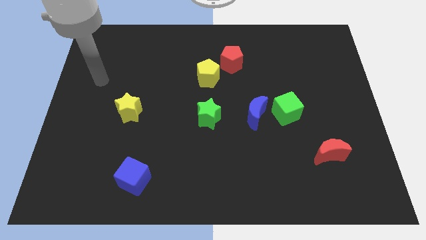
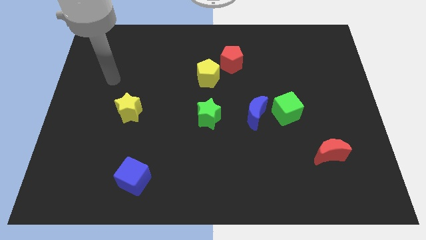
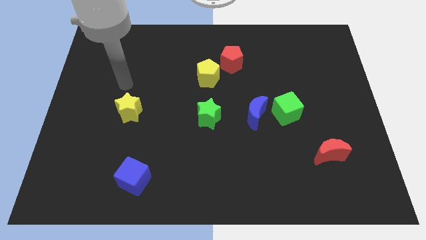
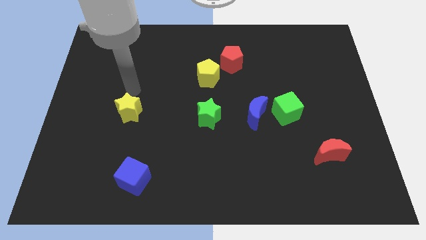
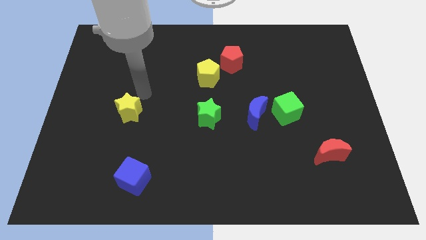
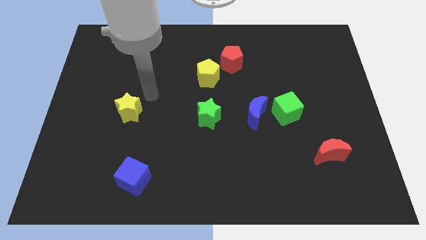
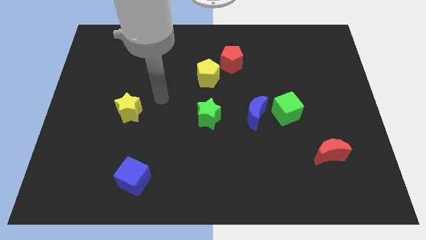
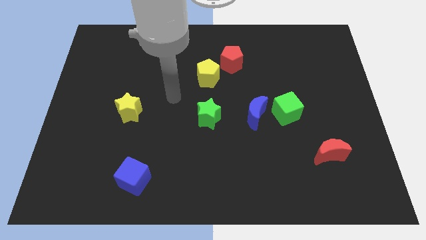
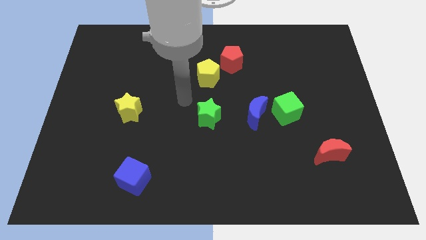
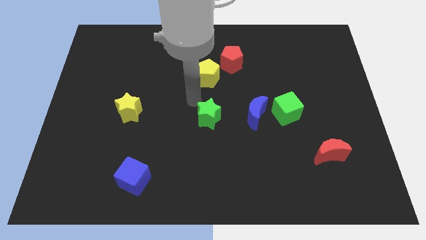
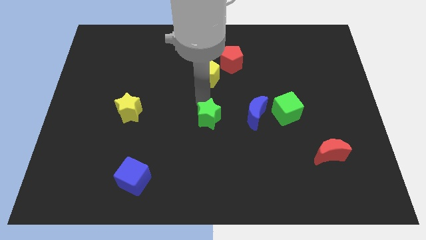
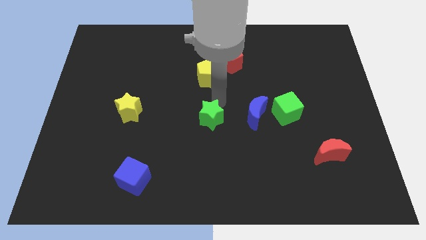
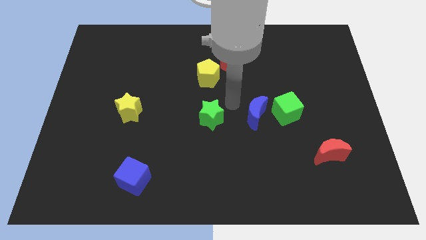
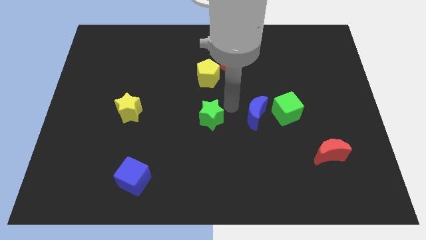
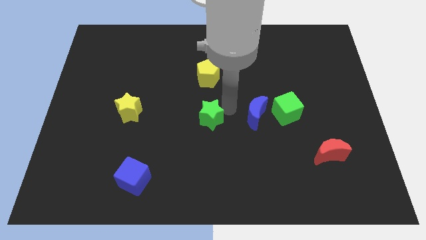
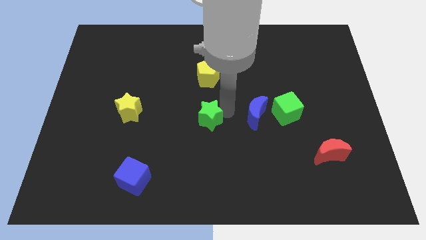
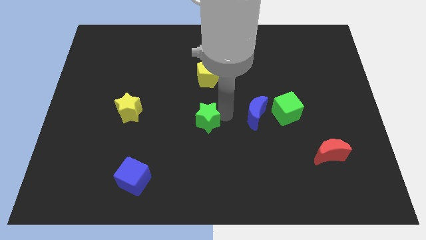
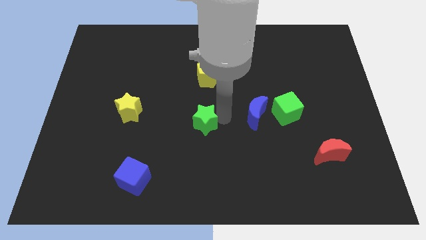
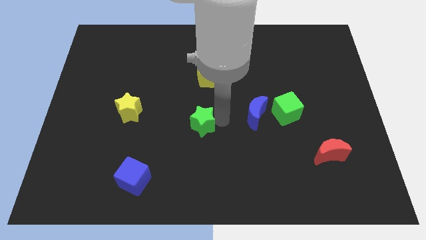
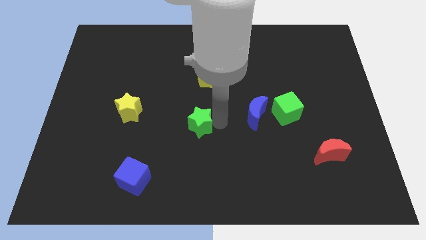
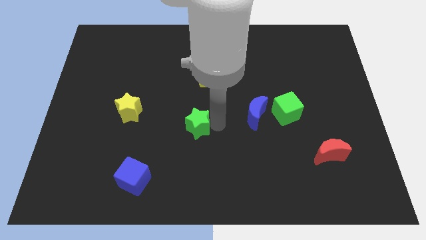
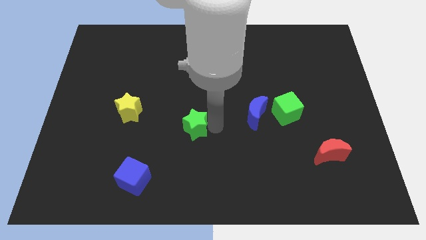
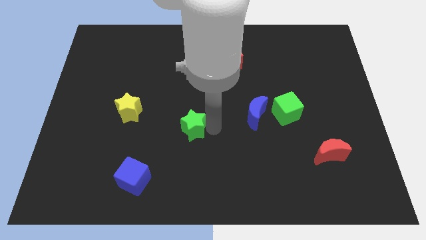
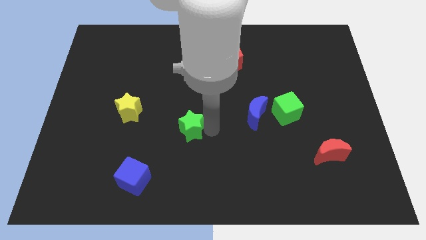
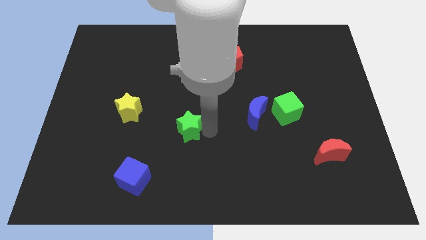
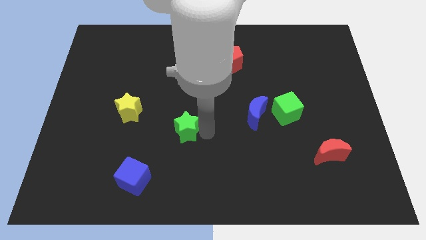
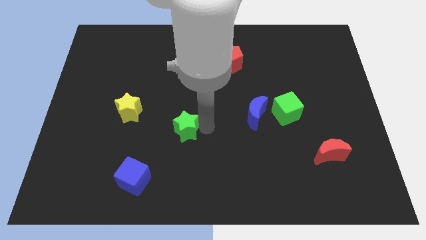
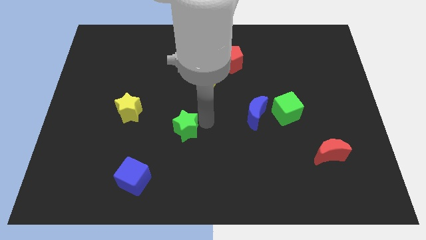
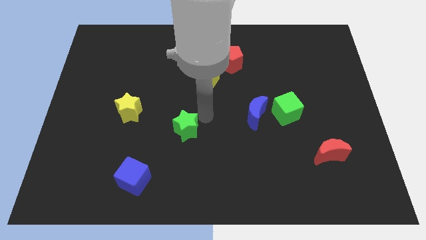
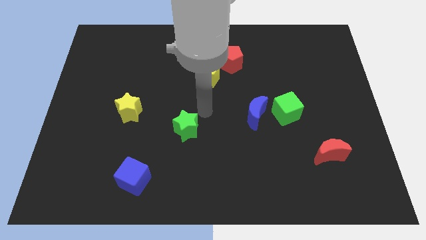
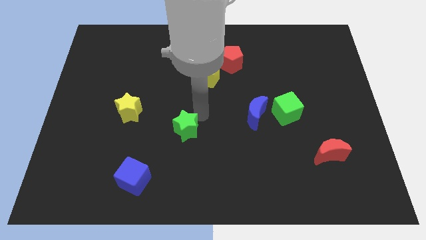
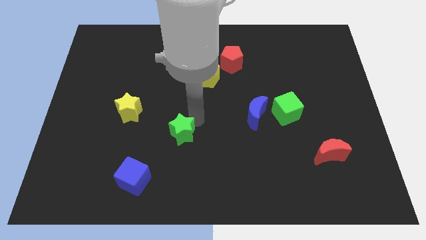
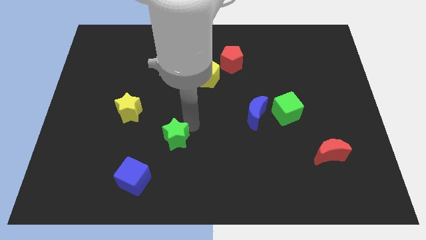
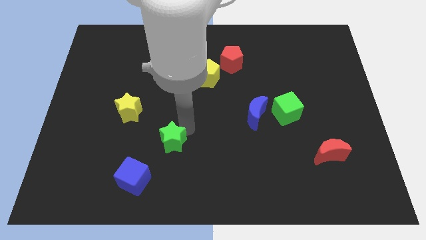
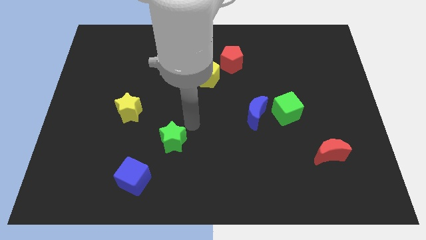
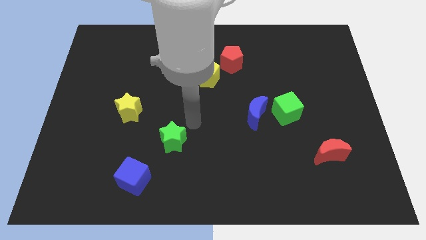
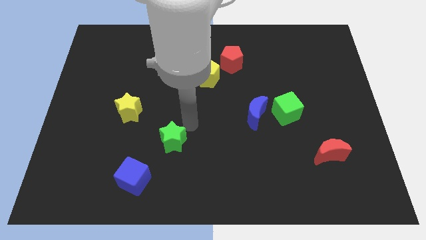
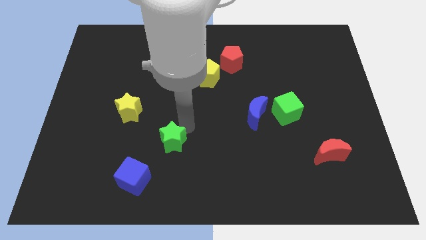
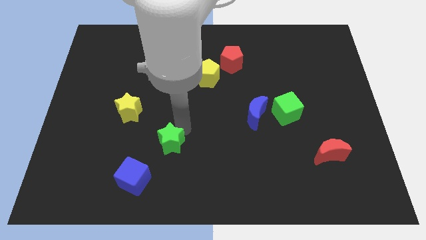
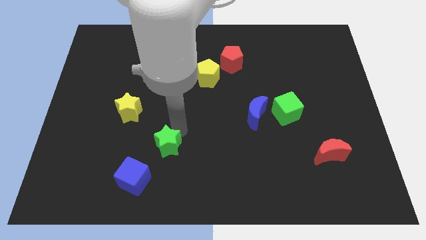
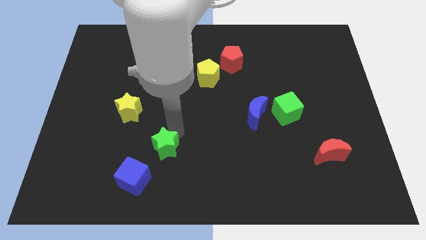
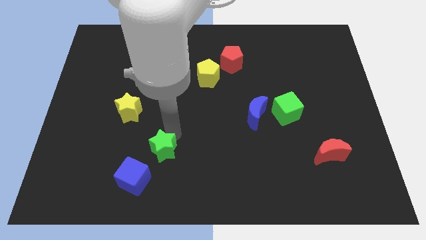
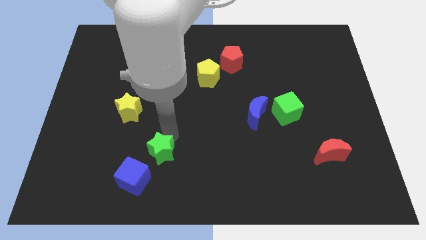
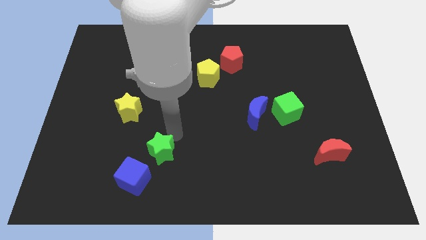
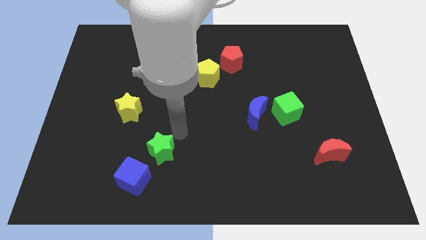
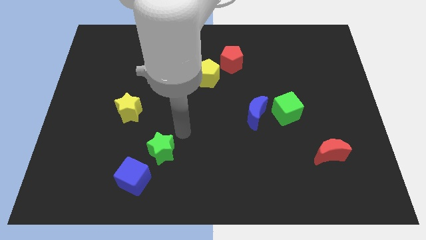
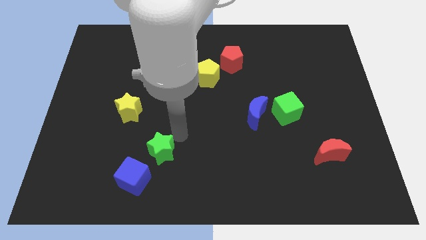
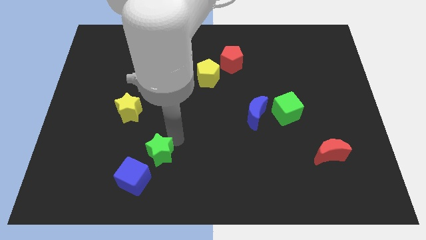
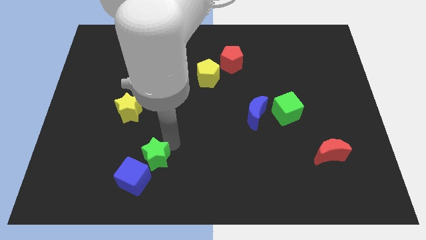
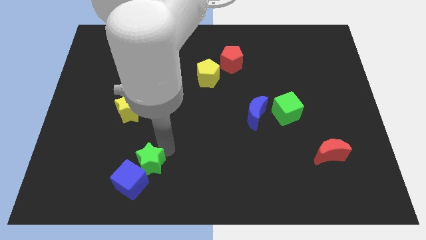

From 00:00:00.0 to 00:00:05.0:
push the green star towards the blue cube

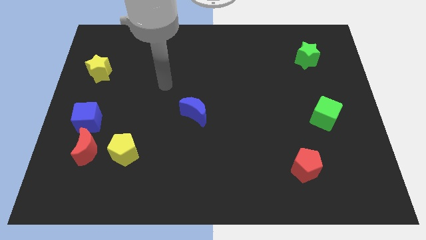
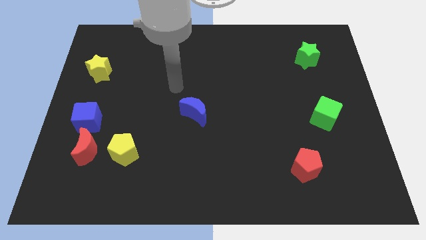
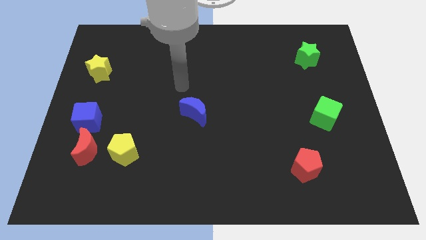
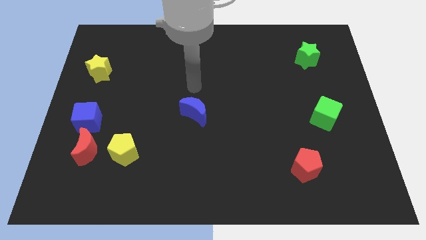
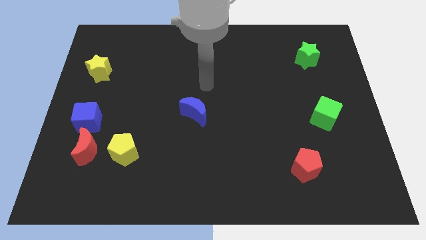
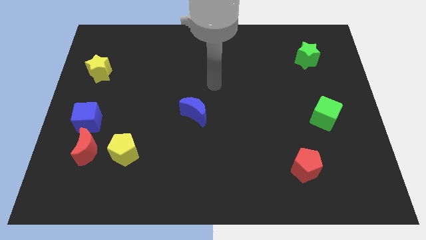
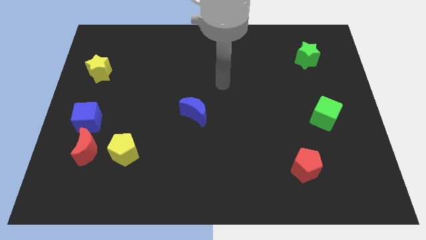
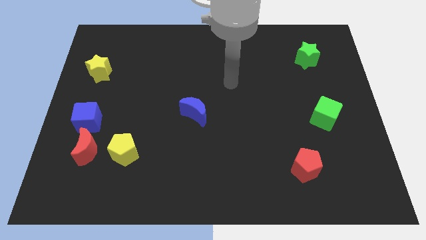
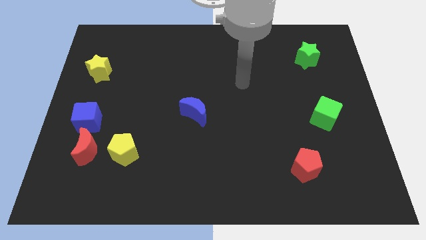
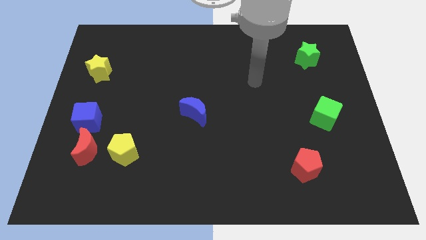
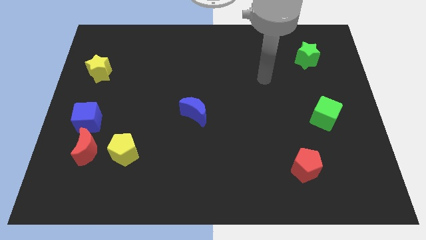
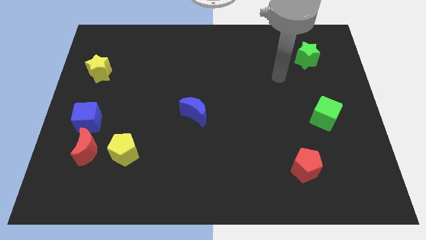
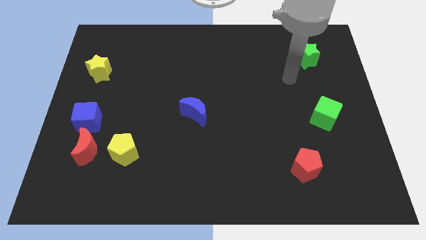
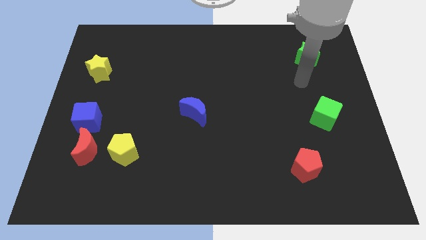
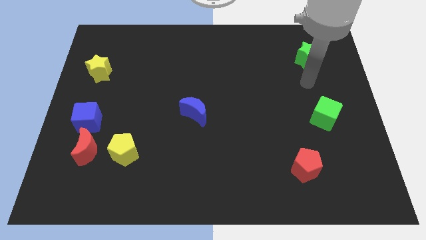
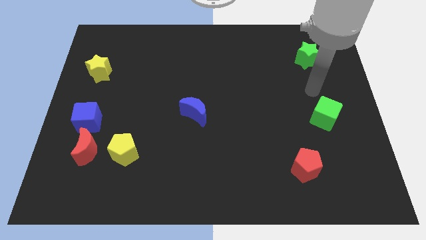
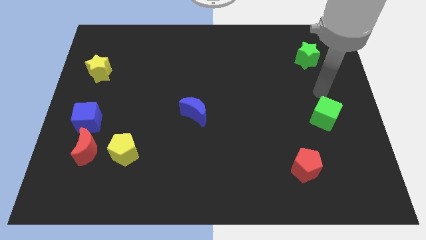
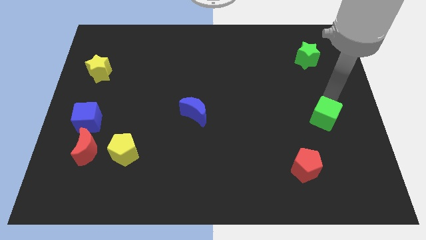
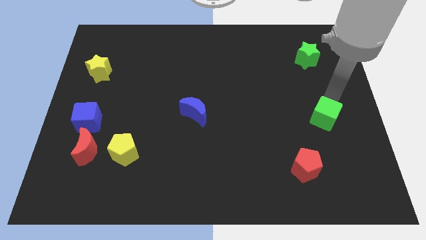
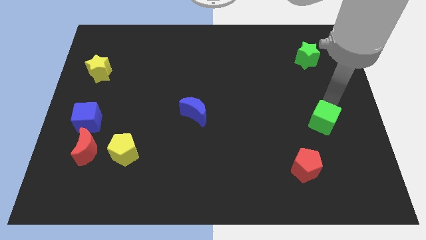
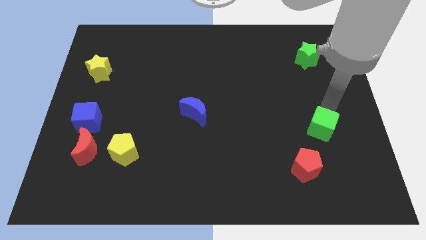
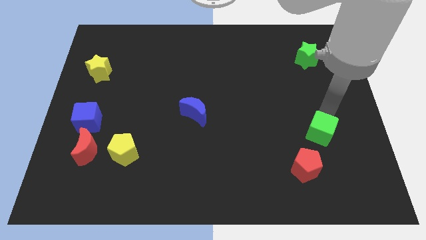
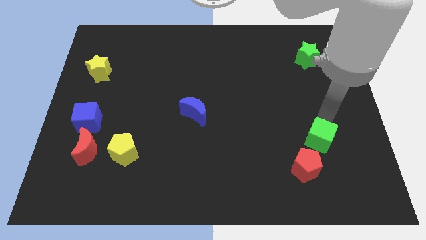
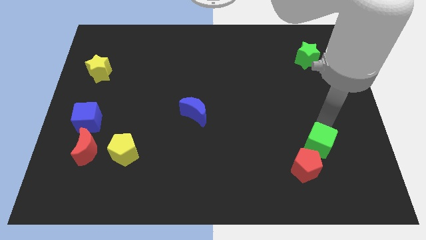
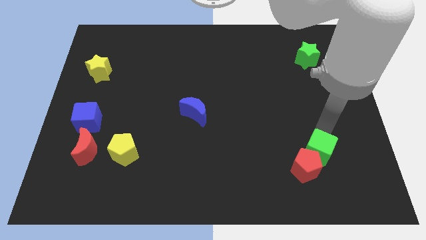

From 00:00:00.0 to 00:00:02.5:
slide the green cube close to the red pentagon
